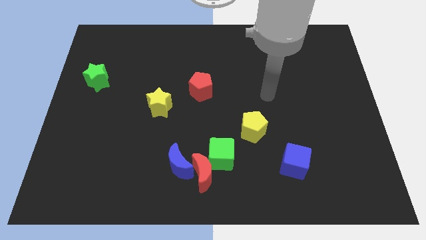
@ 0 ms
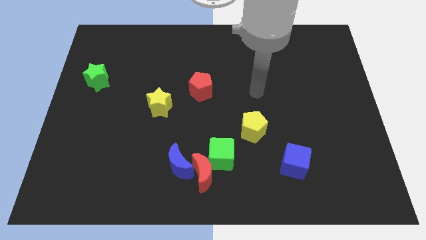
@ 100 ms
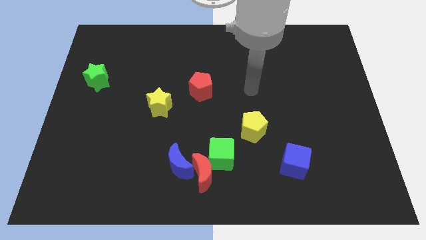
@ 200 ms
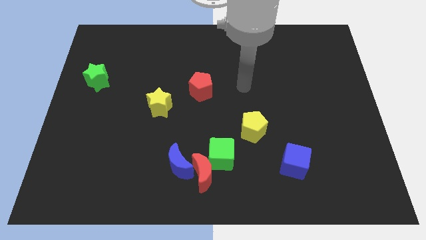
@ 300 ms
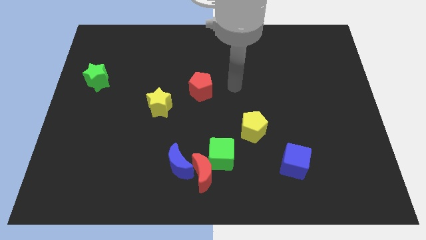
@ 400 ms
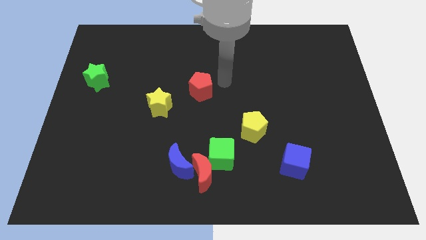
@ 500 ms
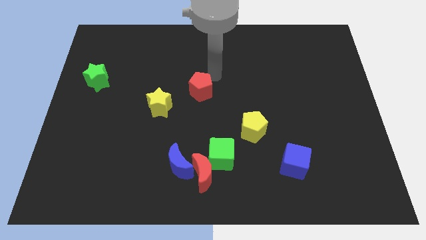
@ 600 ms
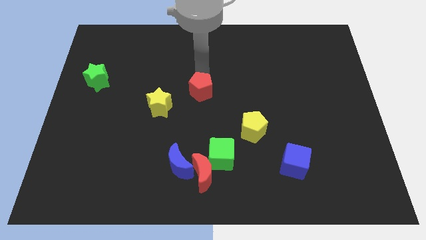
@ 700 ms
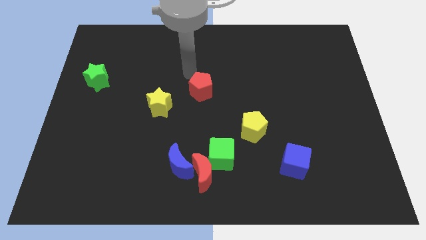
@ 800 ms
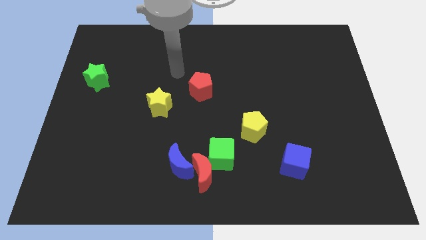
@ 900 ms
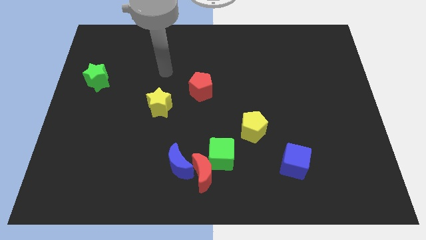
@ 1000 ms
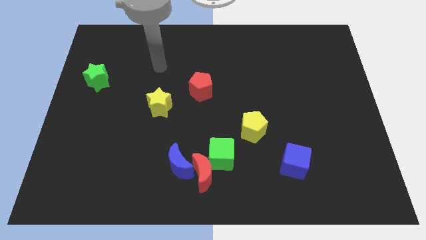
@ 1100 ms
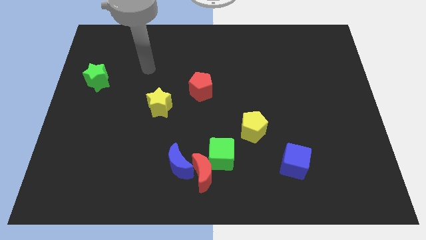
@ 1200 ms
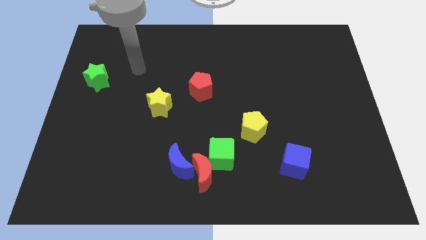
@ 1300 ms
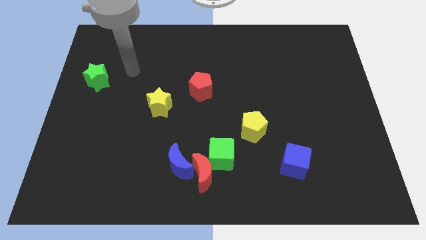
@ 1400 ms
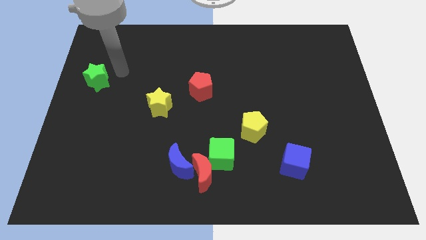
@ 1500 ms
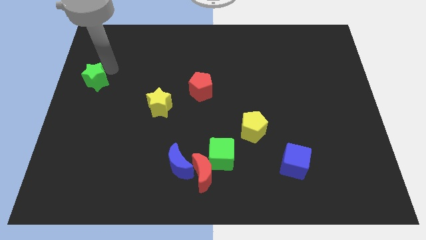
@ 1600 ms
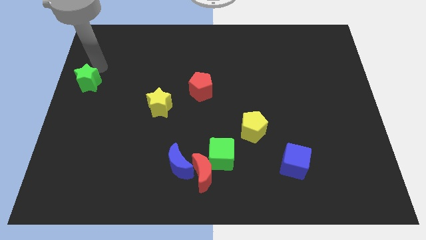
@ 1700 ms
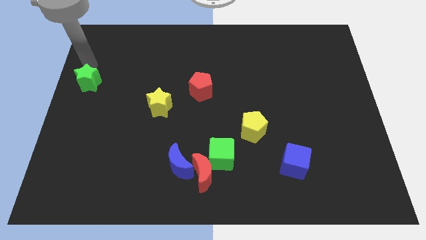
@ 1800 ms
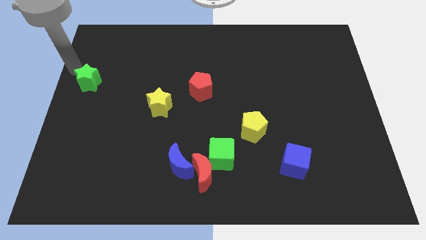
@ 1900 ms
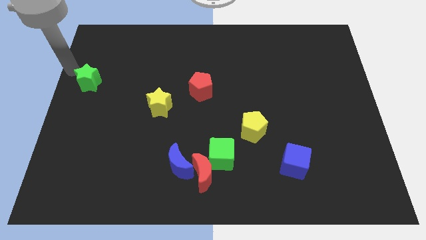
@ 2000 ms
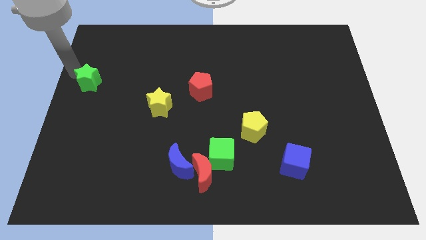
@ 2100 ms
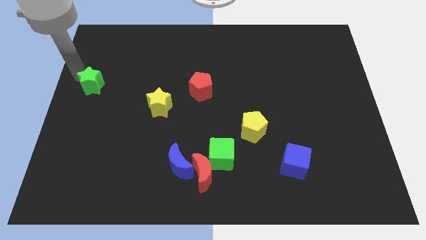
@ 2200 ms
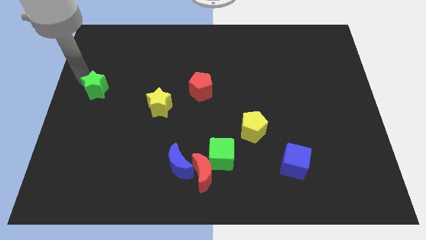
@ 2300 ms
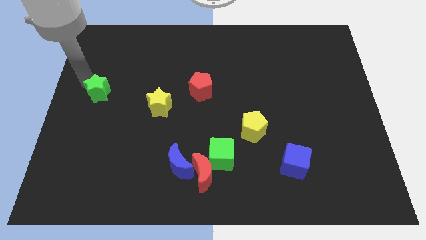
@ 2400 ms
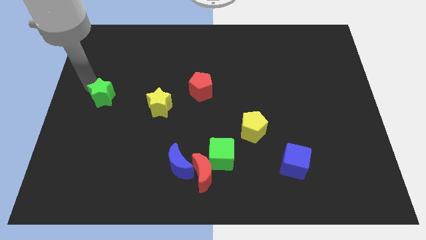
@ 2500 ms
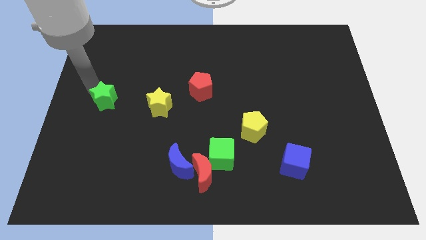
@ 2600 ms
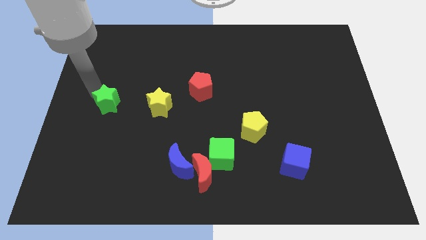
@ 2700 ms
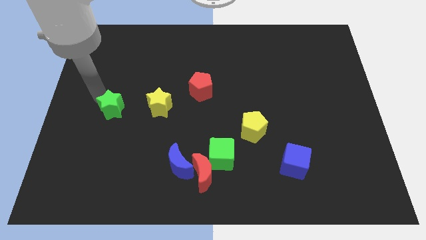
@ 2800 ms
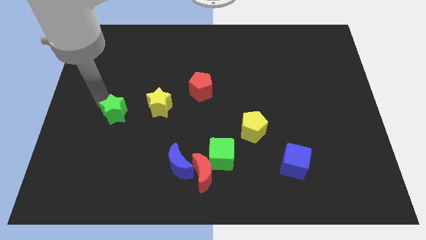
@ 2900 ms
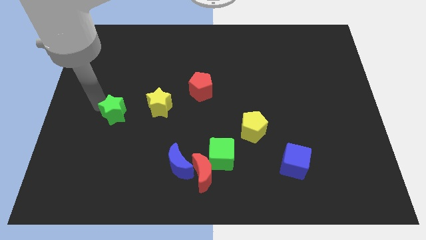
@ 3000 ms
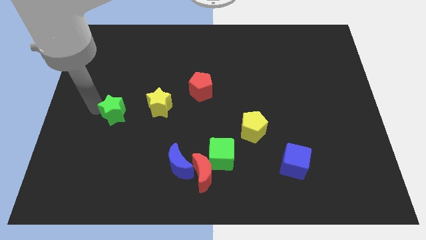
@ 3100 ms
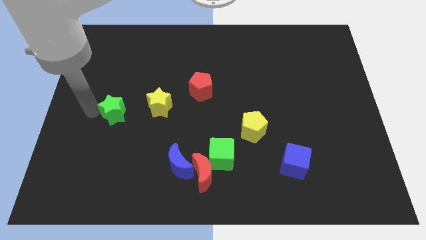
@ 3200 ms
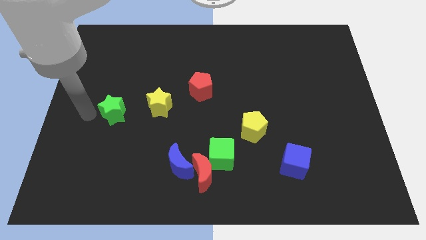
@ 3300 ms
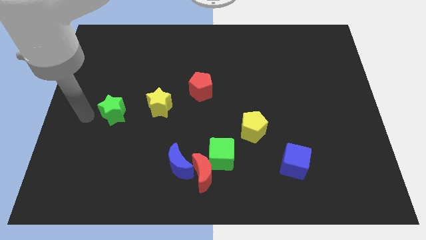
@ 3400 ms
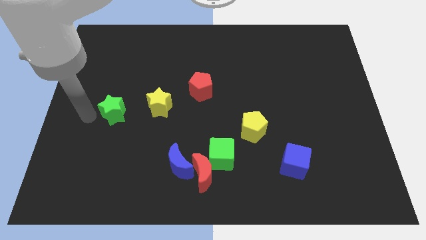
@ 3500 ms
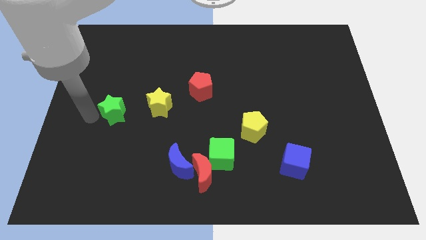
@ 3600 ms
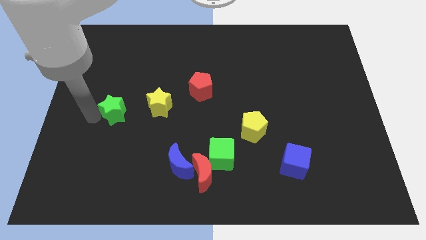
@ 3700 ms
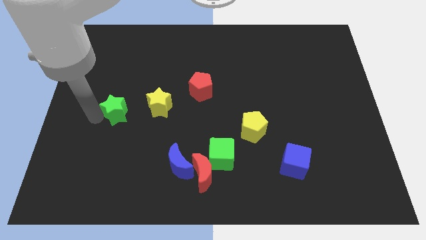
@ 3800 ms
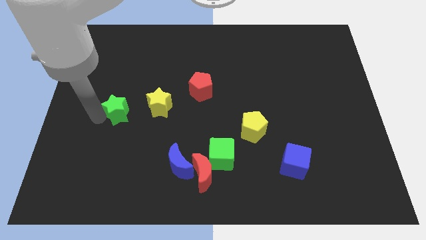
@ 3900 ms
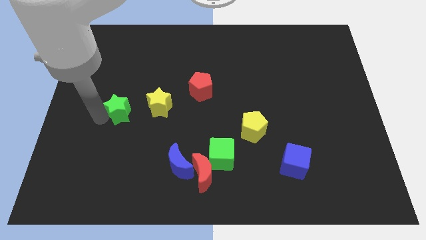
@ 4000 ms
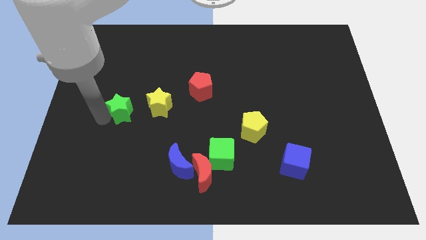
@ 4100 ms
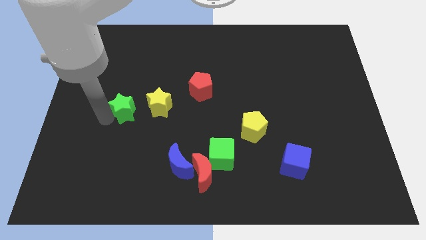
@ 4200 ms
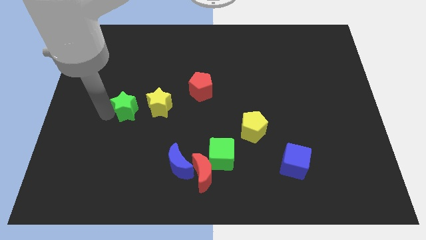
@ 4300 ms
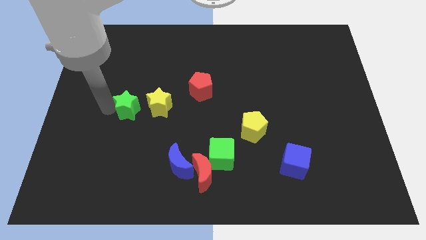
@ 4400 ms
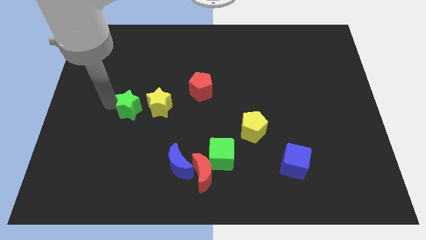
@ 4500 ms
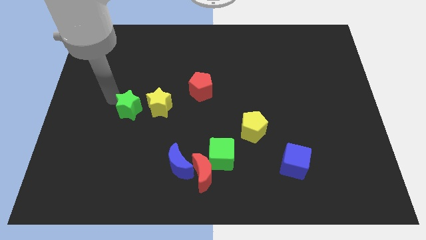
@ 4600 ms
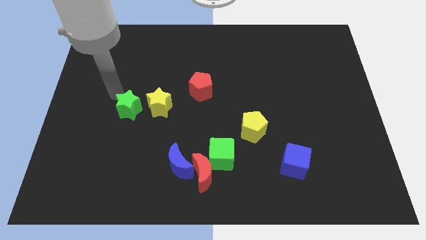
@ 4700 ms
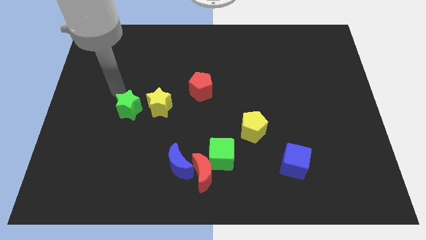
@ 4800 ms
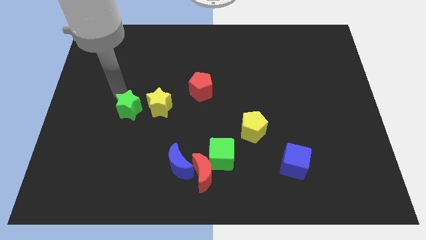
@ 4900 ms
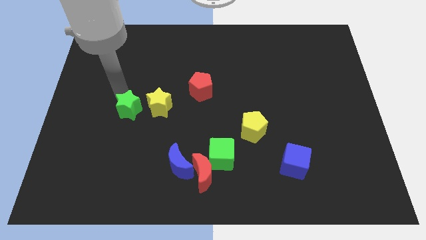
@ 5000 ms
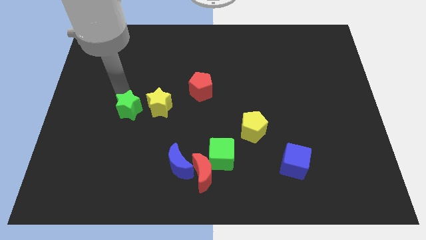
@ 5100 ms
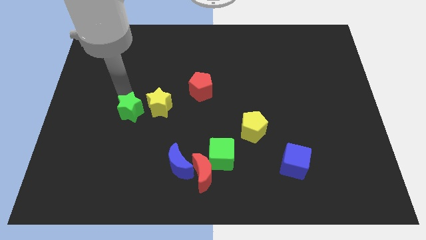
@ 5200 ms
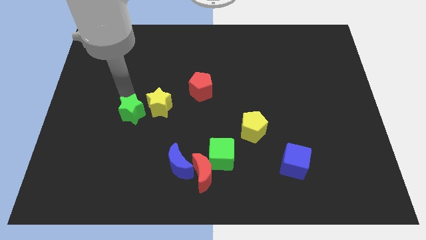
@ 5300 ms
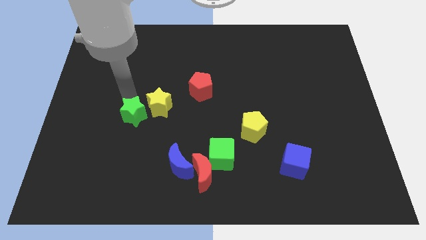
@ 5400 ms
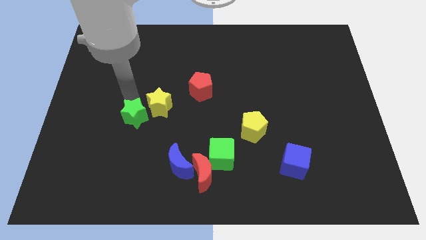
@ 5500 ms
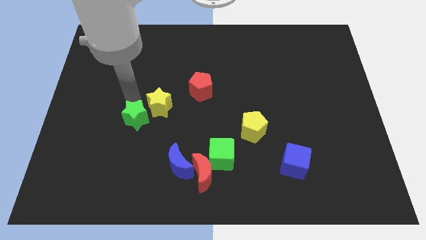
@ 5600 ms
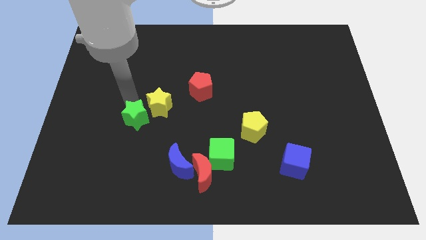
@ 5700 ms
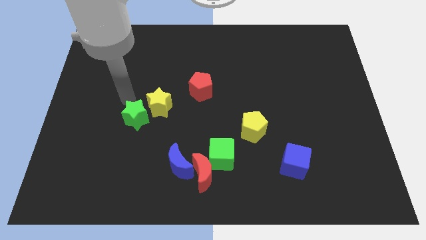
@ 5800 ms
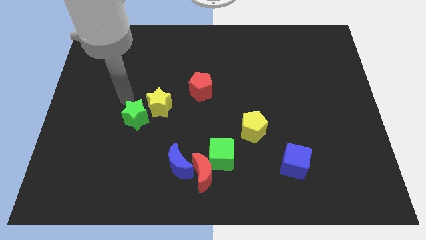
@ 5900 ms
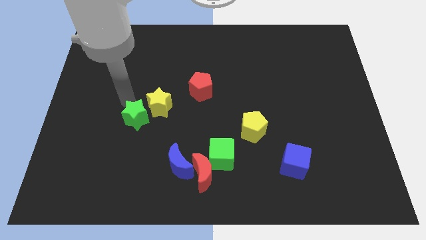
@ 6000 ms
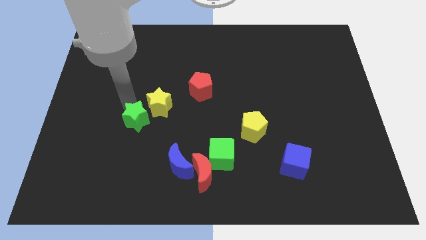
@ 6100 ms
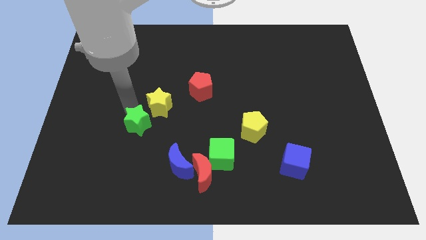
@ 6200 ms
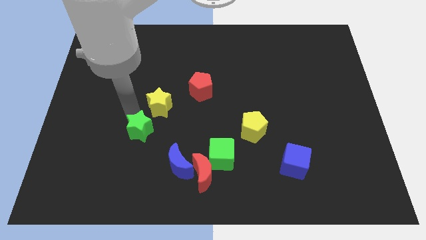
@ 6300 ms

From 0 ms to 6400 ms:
put the green star to the top left of the blue moon

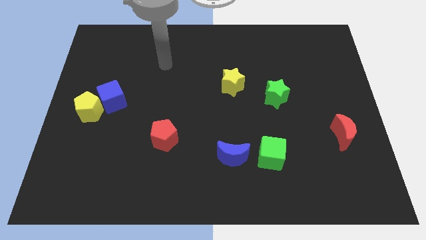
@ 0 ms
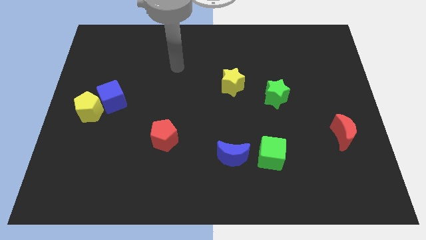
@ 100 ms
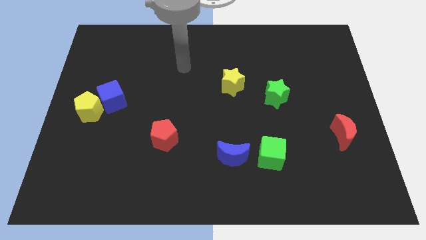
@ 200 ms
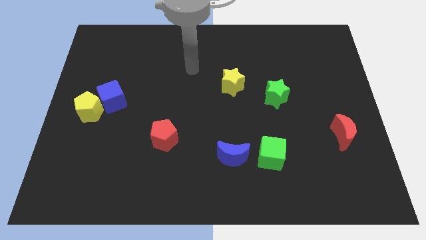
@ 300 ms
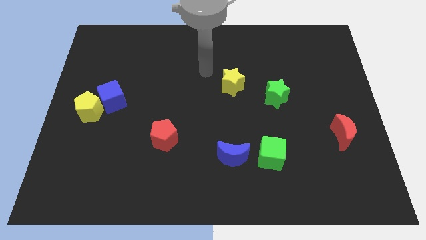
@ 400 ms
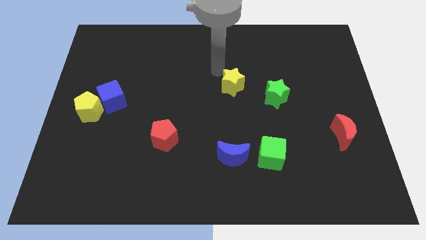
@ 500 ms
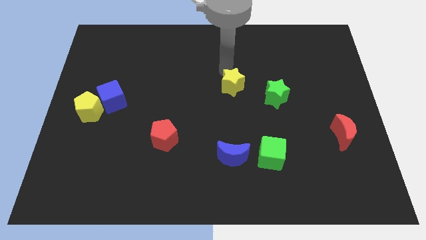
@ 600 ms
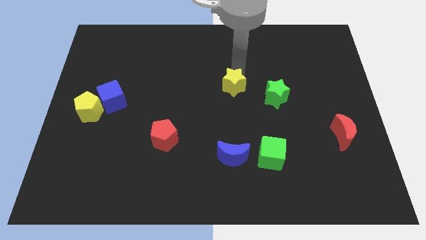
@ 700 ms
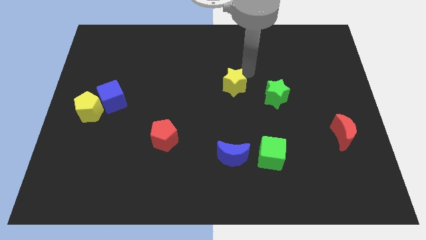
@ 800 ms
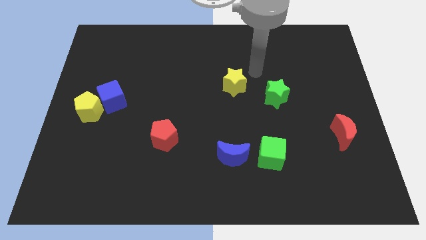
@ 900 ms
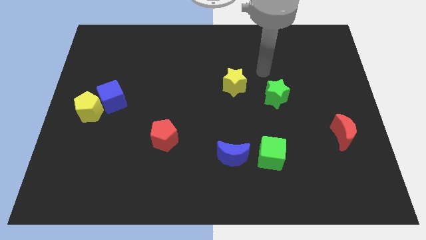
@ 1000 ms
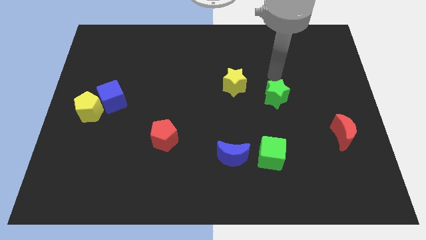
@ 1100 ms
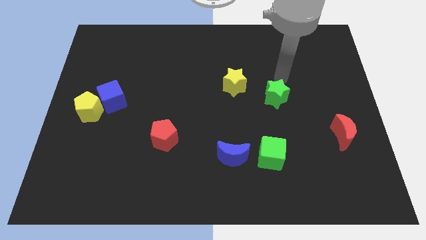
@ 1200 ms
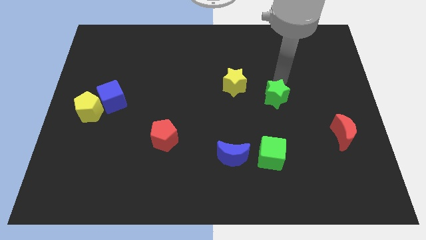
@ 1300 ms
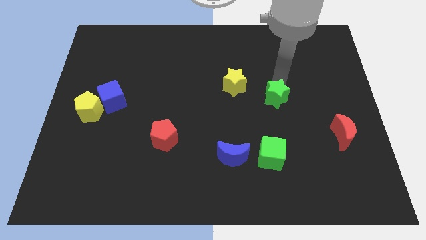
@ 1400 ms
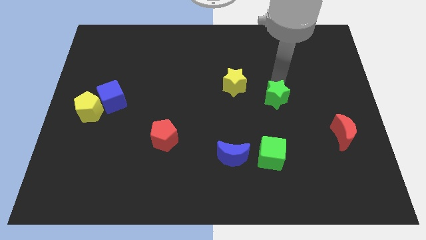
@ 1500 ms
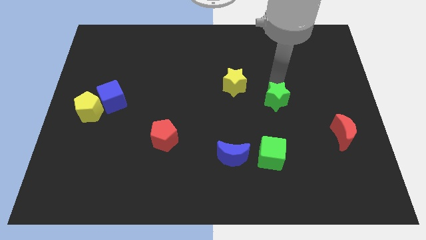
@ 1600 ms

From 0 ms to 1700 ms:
move the green star to the top of the green cube
